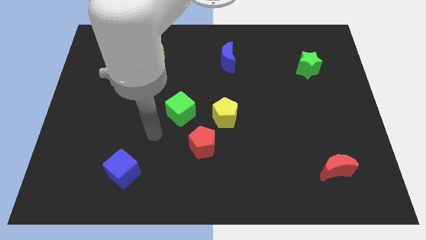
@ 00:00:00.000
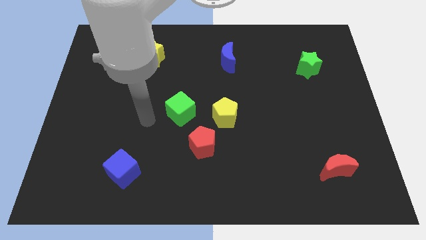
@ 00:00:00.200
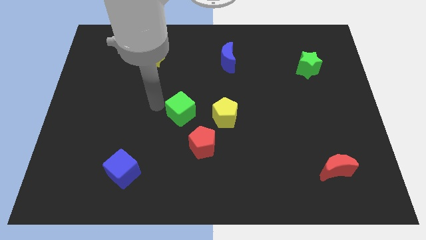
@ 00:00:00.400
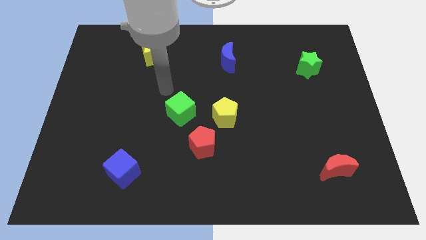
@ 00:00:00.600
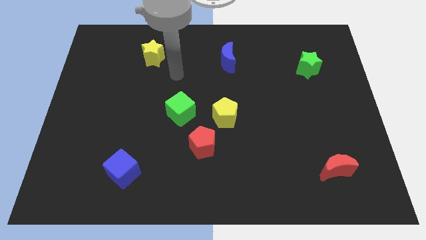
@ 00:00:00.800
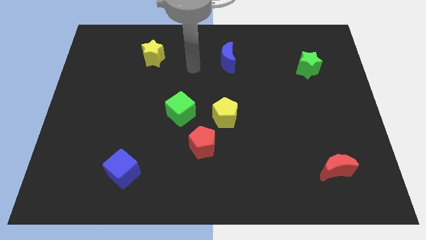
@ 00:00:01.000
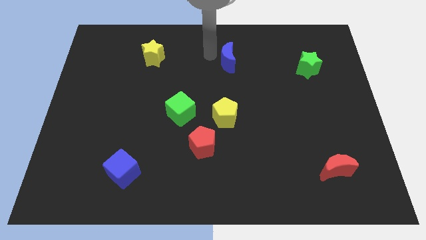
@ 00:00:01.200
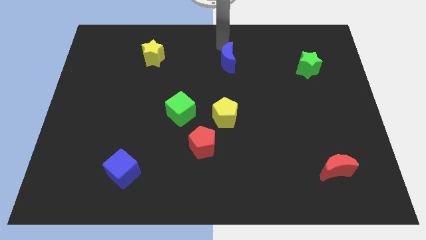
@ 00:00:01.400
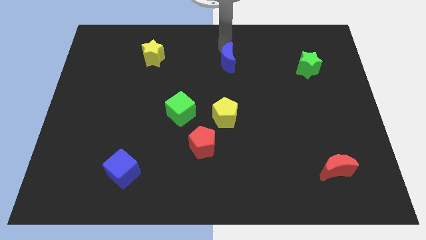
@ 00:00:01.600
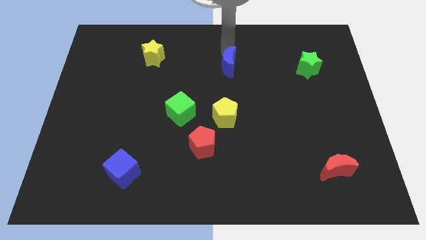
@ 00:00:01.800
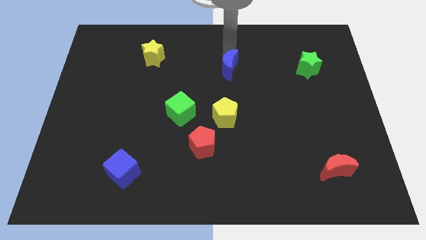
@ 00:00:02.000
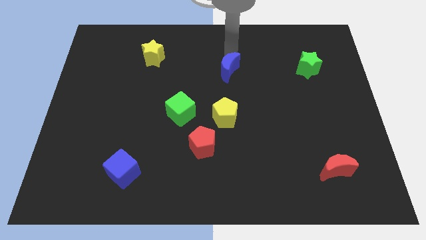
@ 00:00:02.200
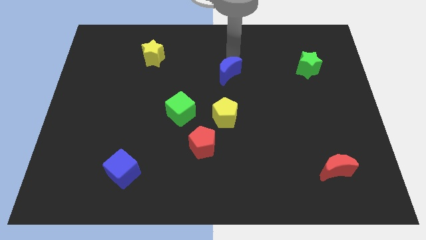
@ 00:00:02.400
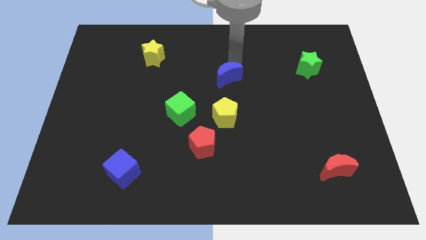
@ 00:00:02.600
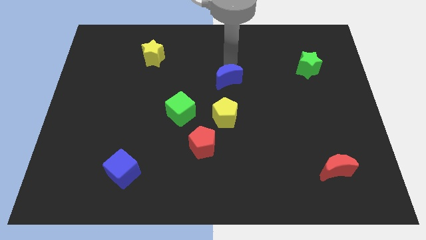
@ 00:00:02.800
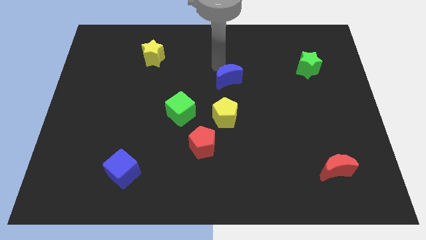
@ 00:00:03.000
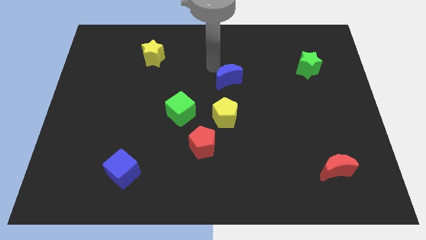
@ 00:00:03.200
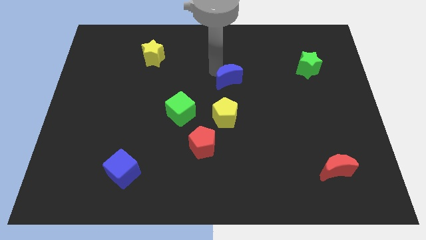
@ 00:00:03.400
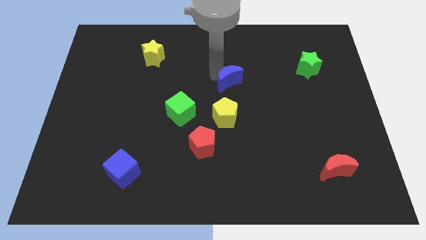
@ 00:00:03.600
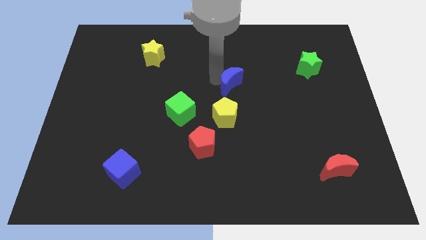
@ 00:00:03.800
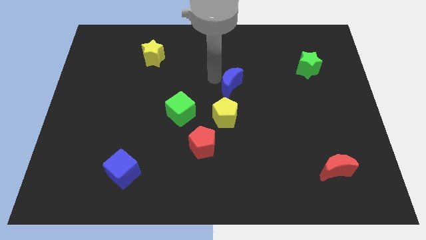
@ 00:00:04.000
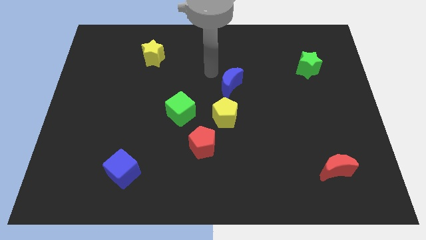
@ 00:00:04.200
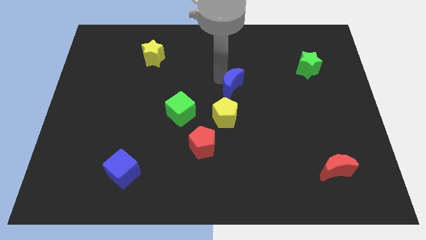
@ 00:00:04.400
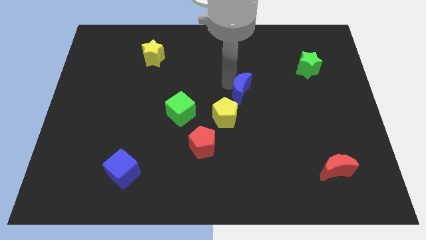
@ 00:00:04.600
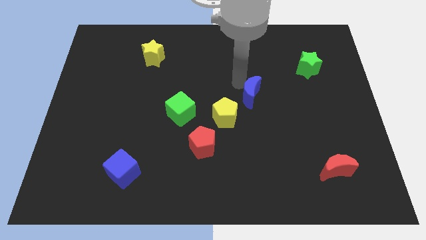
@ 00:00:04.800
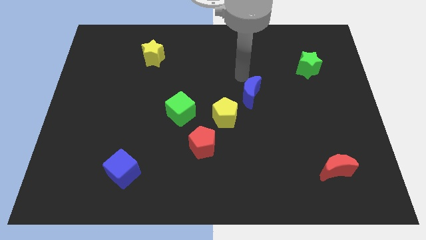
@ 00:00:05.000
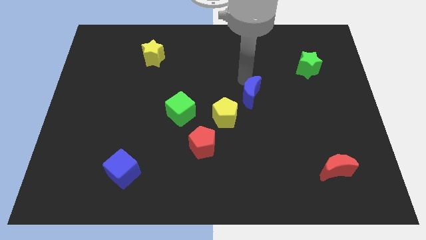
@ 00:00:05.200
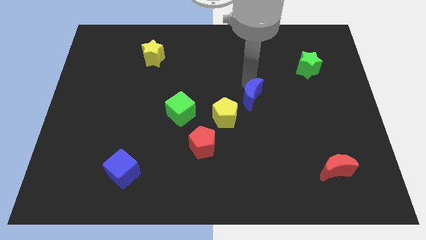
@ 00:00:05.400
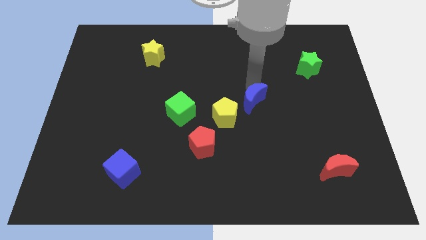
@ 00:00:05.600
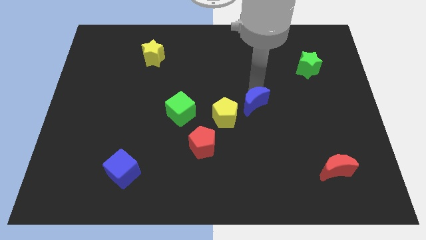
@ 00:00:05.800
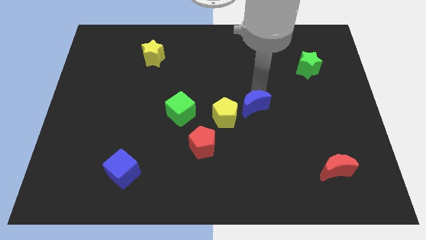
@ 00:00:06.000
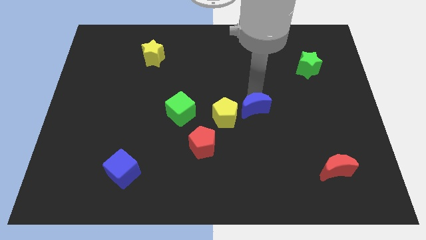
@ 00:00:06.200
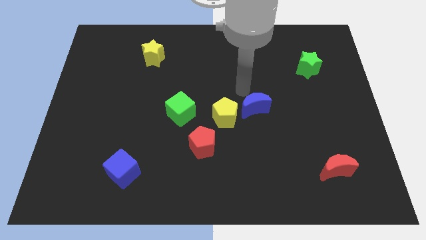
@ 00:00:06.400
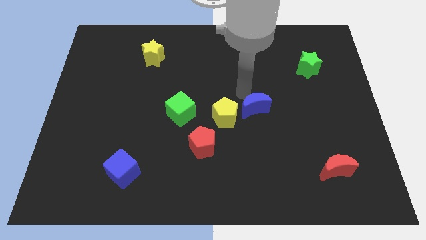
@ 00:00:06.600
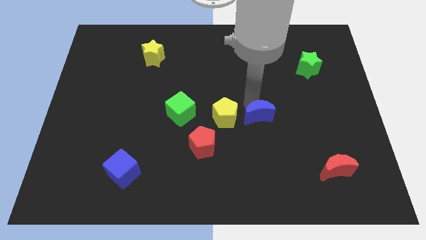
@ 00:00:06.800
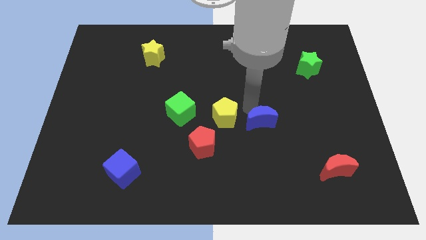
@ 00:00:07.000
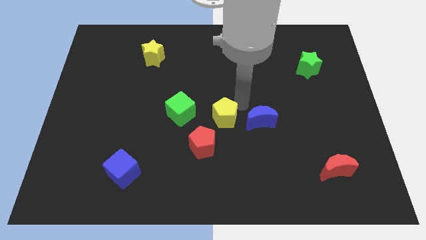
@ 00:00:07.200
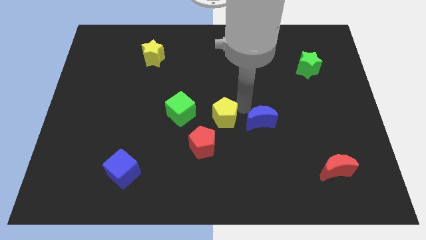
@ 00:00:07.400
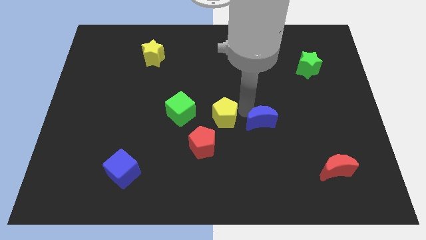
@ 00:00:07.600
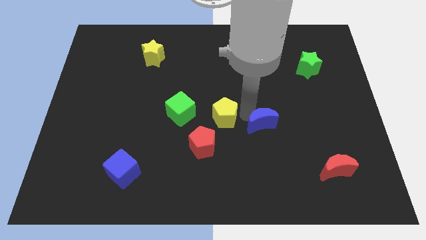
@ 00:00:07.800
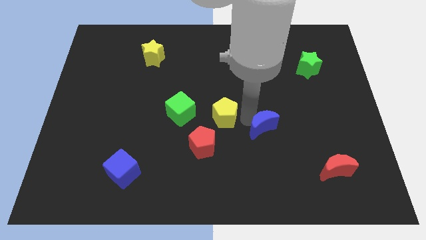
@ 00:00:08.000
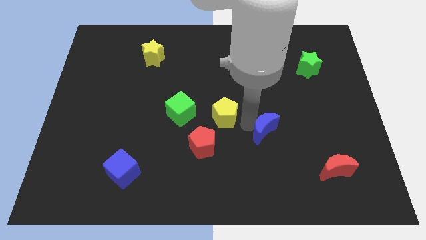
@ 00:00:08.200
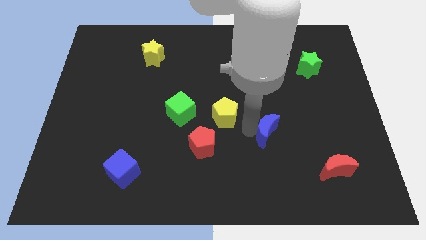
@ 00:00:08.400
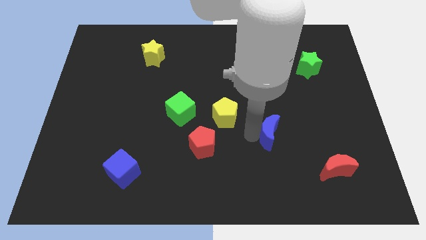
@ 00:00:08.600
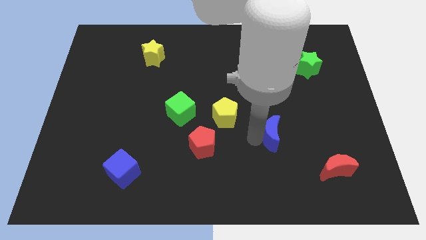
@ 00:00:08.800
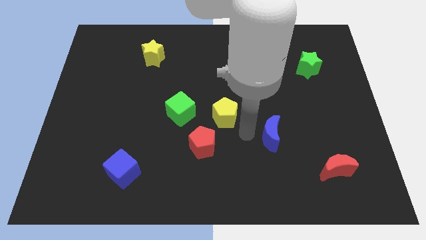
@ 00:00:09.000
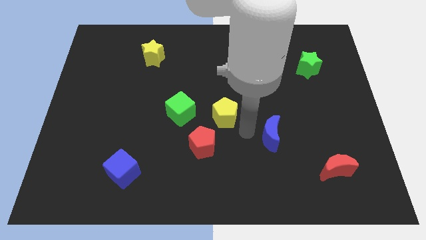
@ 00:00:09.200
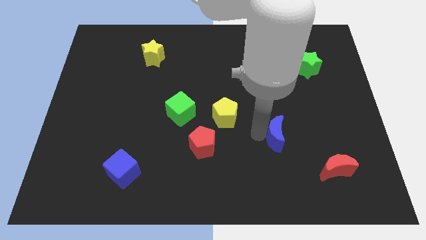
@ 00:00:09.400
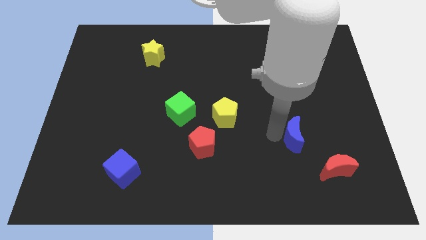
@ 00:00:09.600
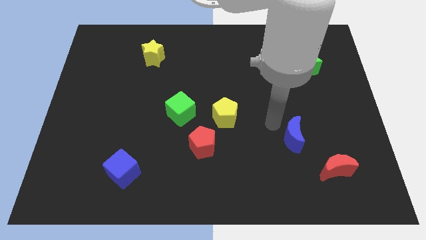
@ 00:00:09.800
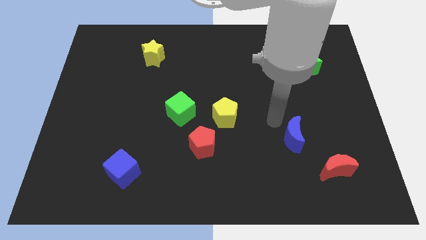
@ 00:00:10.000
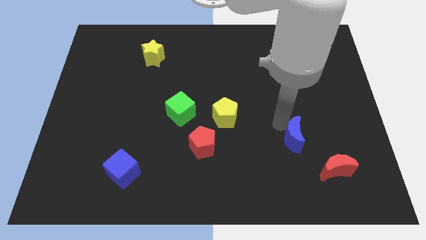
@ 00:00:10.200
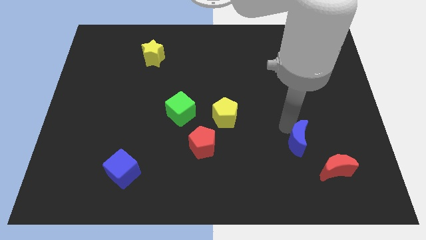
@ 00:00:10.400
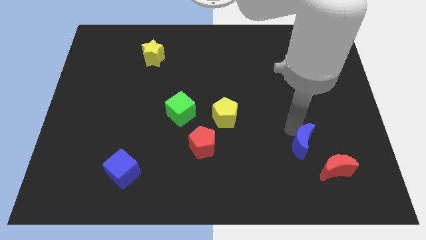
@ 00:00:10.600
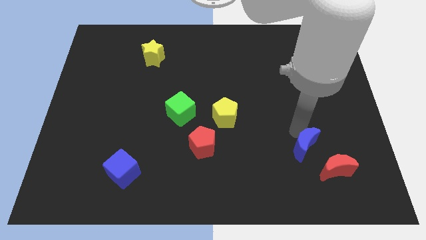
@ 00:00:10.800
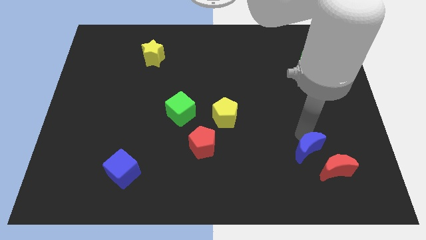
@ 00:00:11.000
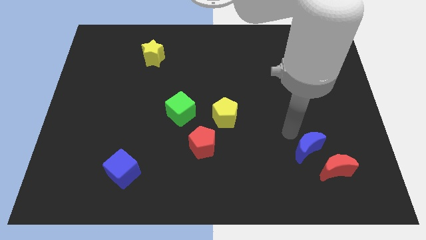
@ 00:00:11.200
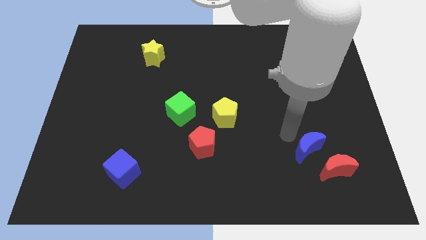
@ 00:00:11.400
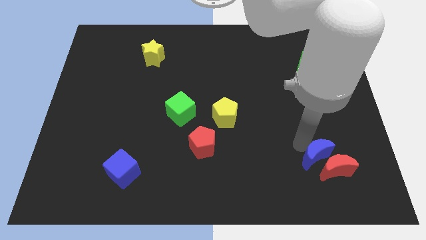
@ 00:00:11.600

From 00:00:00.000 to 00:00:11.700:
push the blue moon next to the red moon
